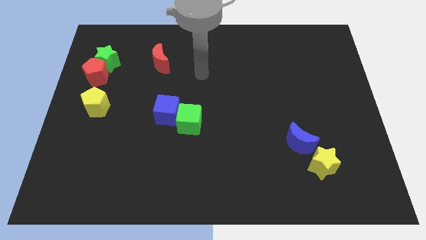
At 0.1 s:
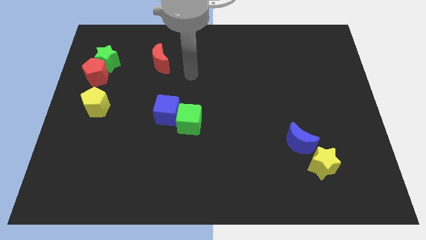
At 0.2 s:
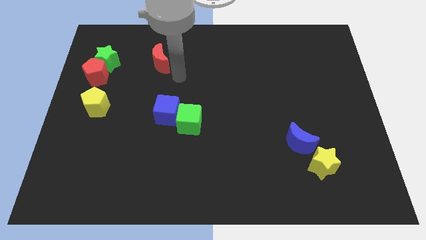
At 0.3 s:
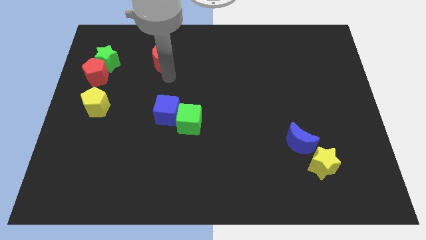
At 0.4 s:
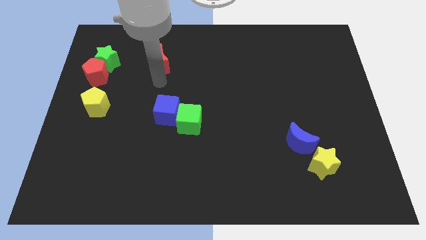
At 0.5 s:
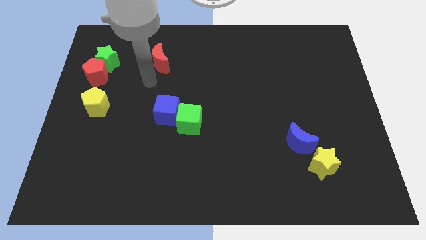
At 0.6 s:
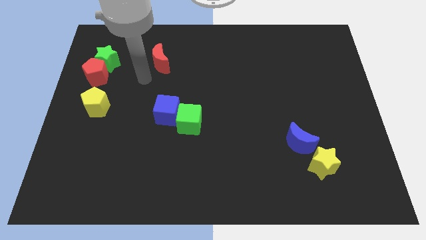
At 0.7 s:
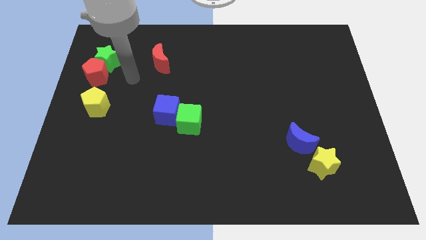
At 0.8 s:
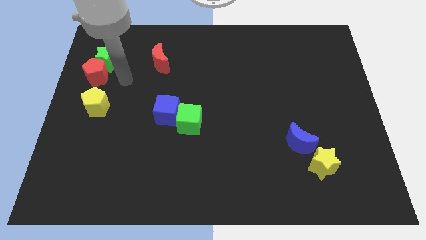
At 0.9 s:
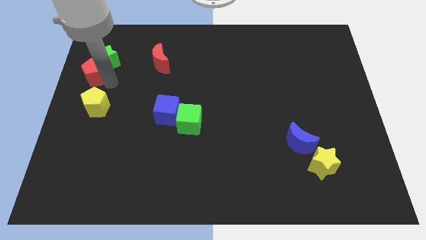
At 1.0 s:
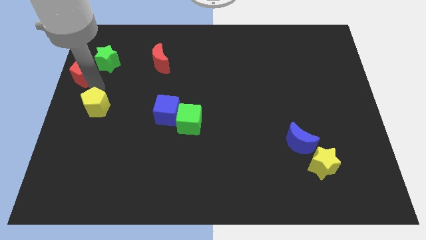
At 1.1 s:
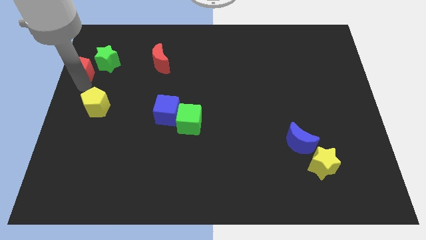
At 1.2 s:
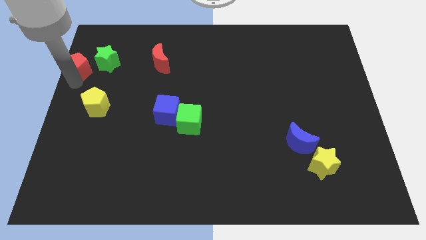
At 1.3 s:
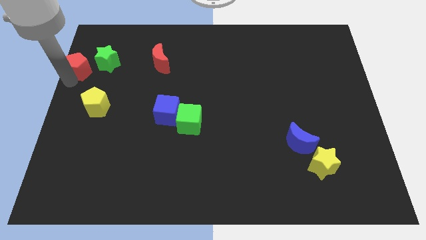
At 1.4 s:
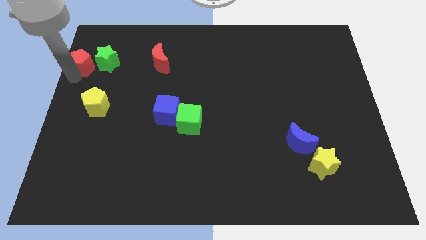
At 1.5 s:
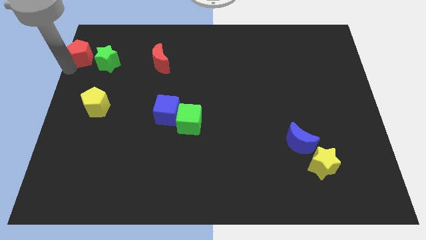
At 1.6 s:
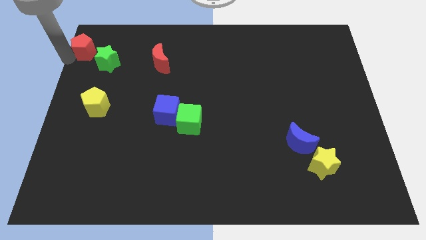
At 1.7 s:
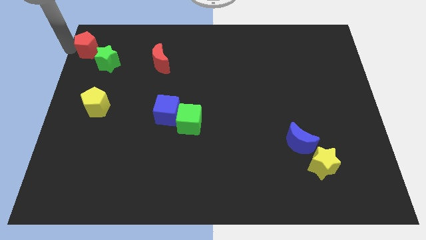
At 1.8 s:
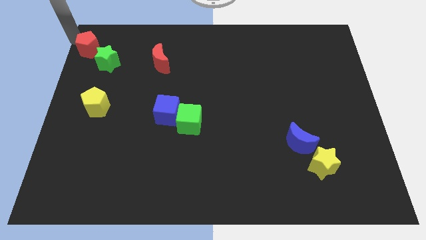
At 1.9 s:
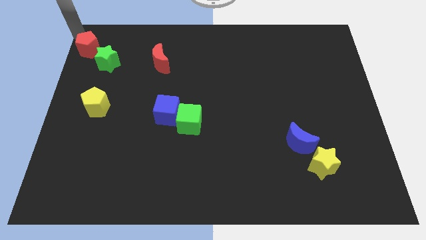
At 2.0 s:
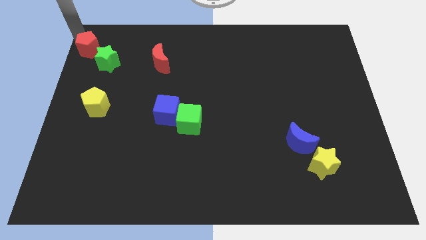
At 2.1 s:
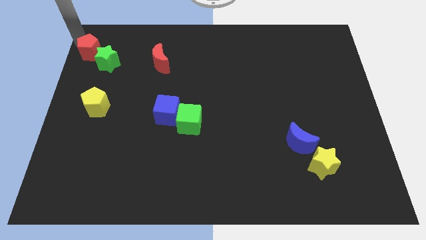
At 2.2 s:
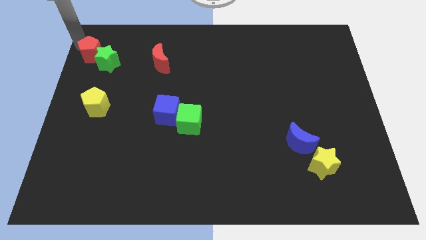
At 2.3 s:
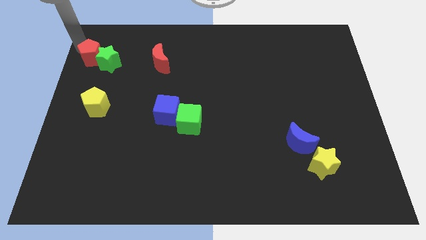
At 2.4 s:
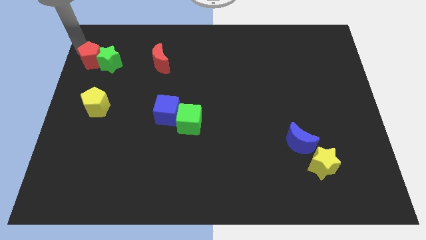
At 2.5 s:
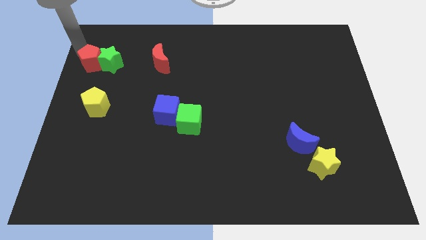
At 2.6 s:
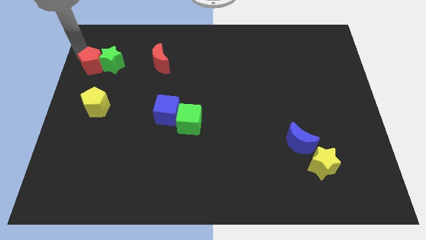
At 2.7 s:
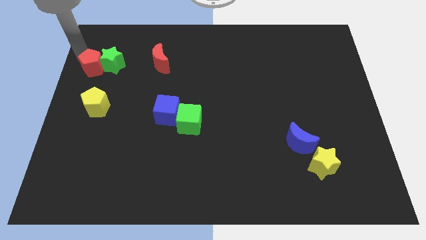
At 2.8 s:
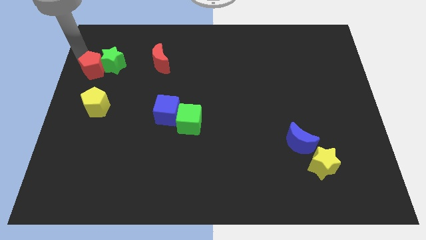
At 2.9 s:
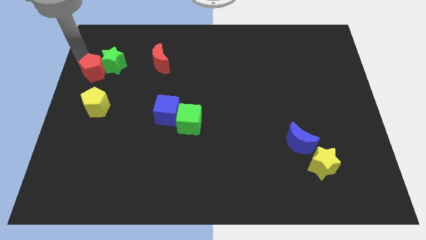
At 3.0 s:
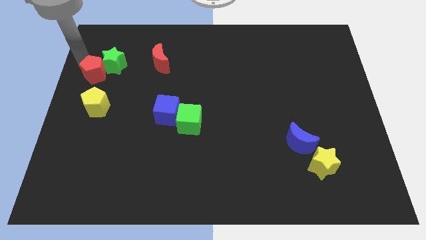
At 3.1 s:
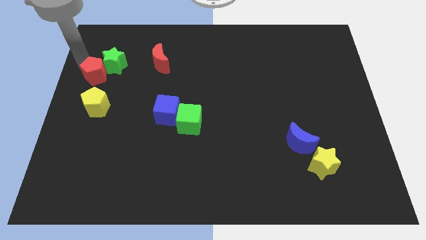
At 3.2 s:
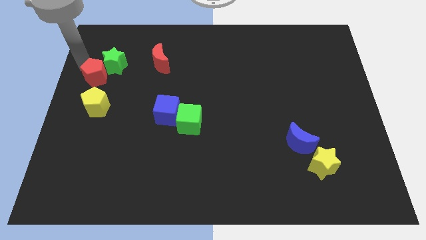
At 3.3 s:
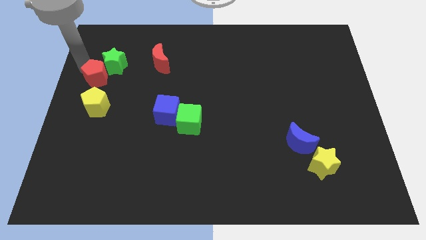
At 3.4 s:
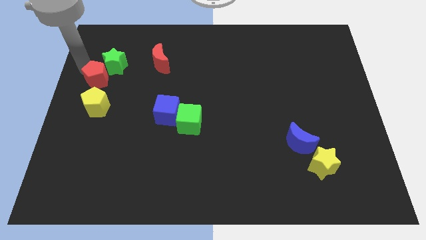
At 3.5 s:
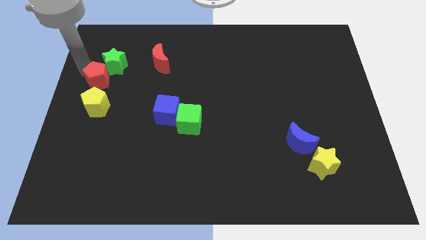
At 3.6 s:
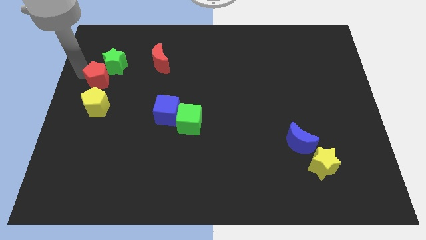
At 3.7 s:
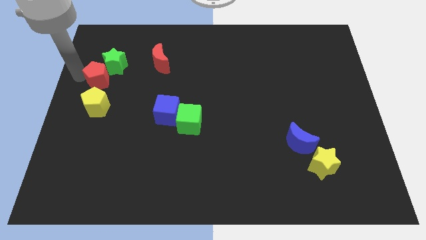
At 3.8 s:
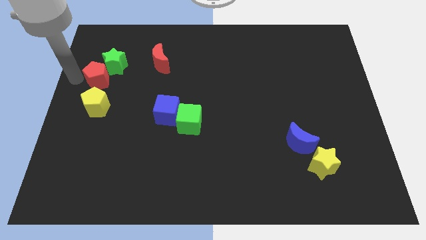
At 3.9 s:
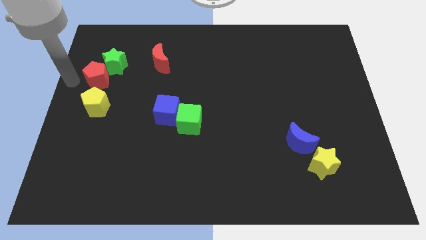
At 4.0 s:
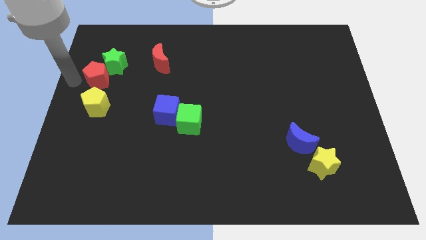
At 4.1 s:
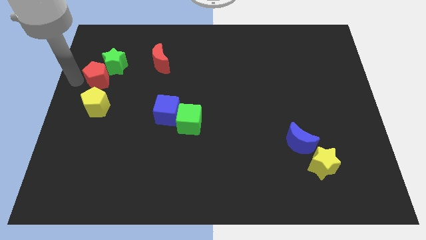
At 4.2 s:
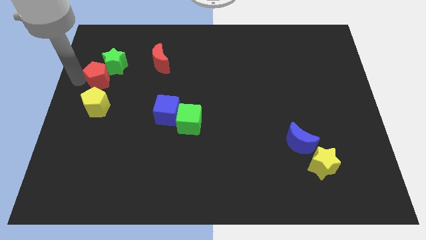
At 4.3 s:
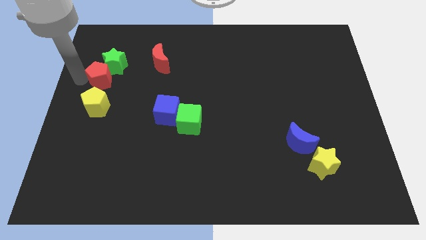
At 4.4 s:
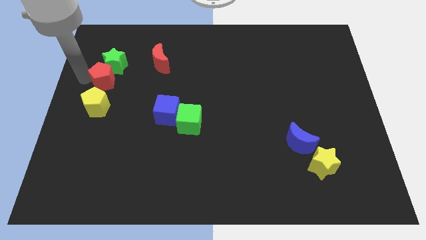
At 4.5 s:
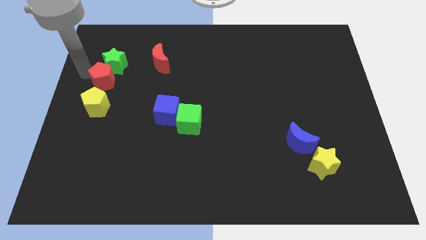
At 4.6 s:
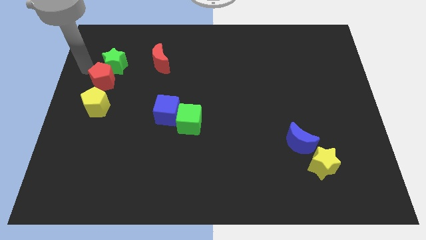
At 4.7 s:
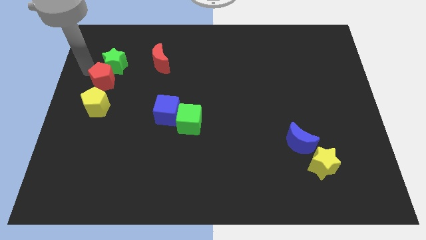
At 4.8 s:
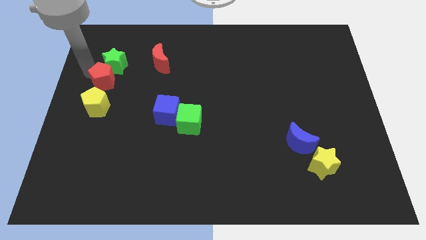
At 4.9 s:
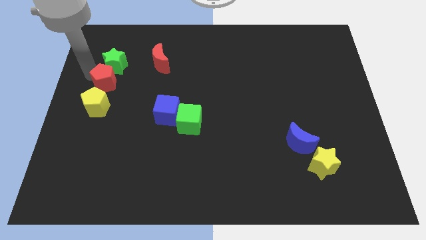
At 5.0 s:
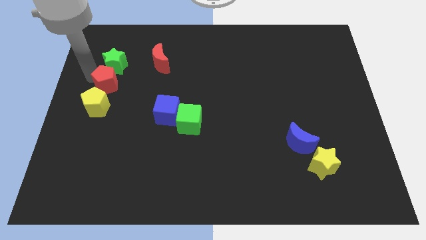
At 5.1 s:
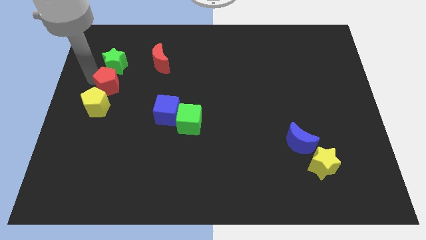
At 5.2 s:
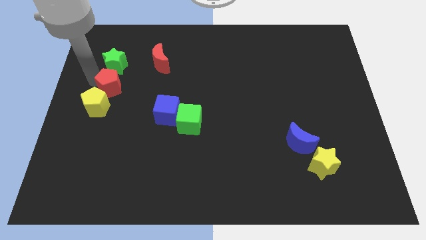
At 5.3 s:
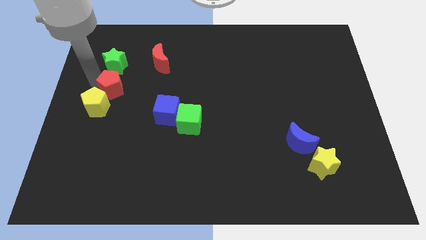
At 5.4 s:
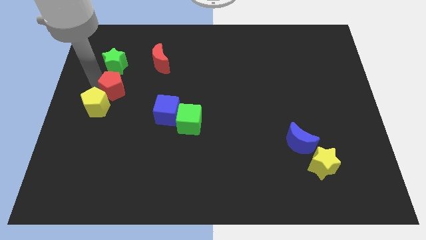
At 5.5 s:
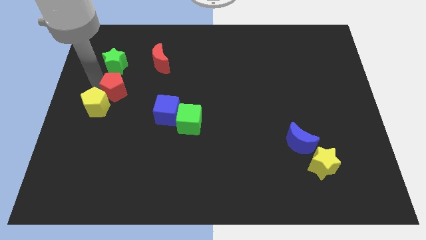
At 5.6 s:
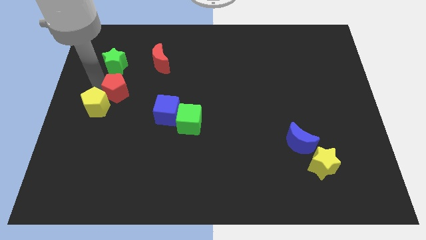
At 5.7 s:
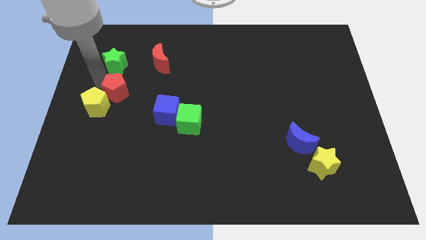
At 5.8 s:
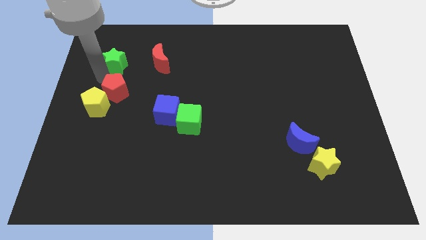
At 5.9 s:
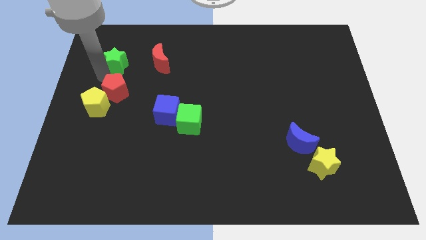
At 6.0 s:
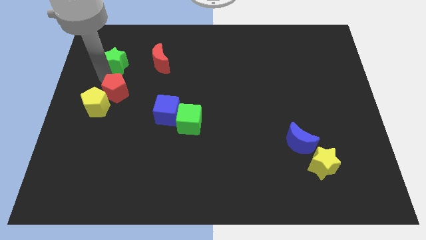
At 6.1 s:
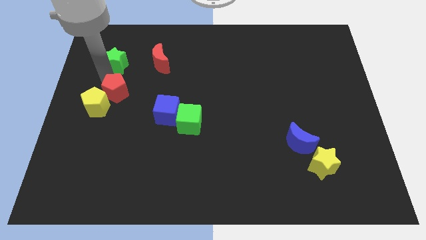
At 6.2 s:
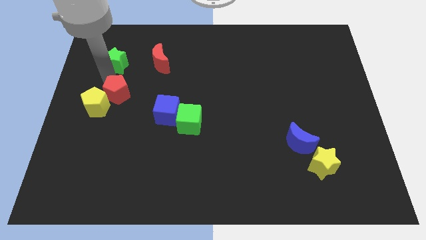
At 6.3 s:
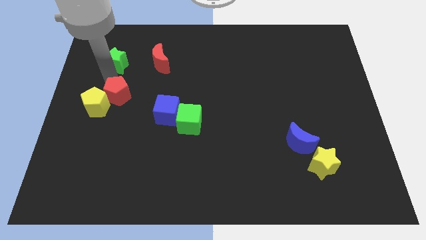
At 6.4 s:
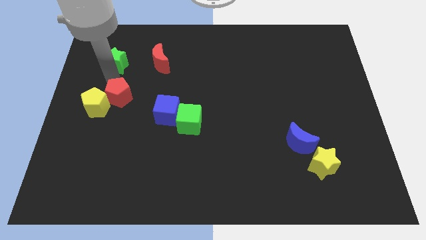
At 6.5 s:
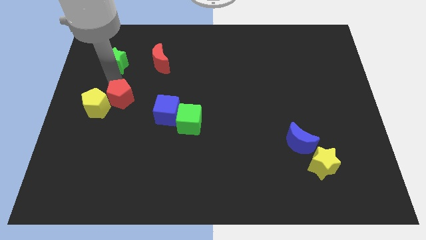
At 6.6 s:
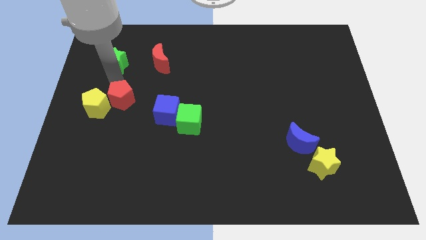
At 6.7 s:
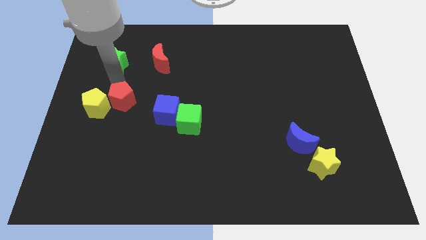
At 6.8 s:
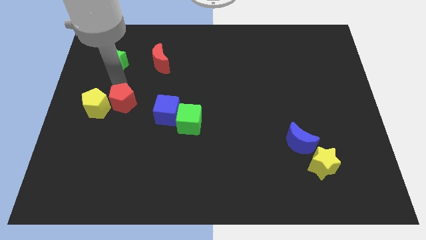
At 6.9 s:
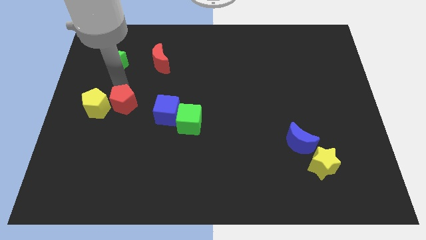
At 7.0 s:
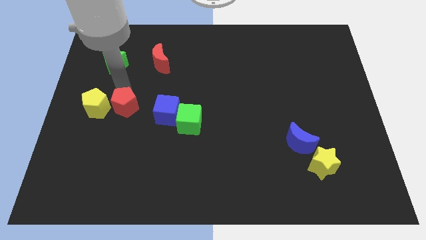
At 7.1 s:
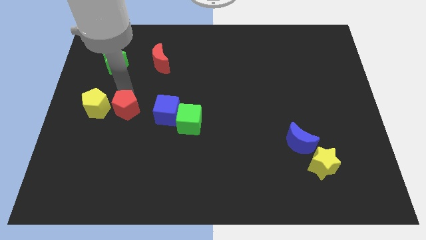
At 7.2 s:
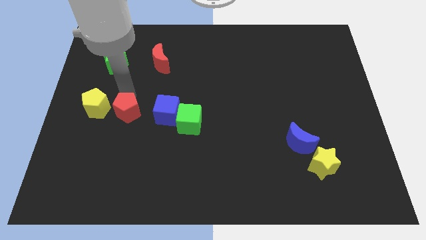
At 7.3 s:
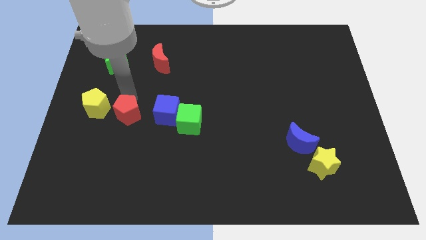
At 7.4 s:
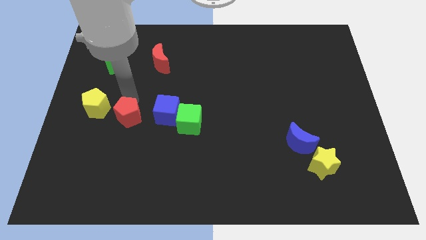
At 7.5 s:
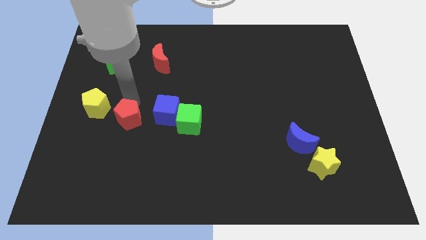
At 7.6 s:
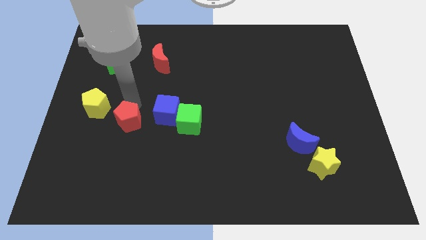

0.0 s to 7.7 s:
move the red pentagon diagonally down and to the left of the blue cube
